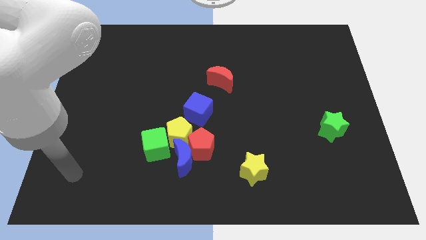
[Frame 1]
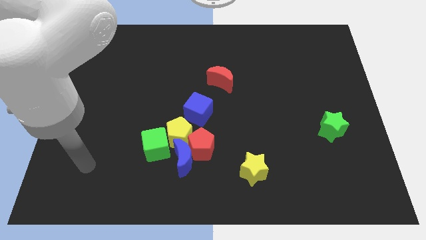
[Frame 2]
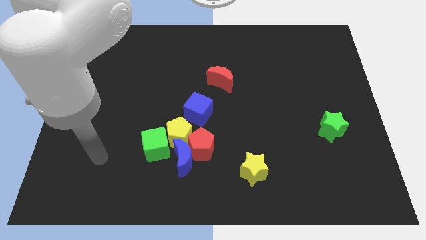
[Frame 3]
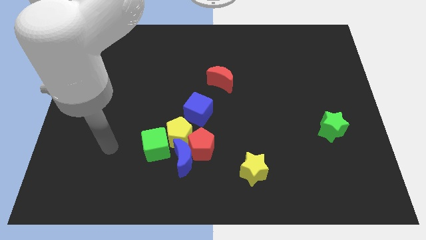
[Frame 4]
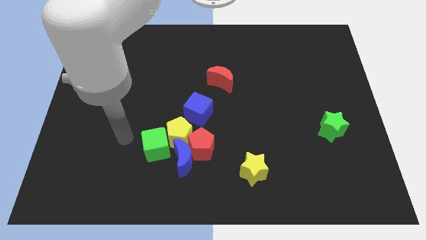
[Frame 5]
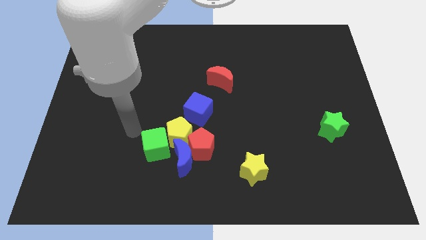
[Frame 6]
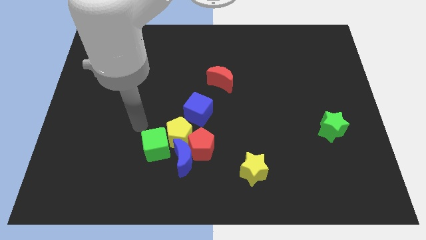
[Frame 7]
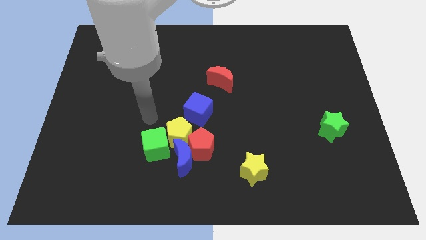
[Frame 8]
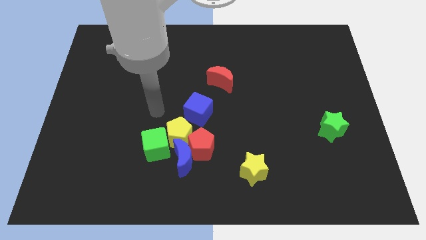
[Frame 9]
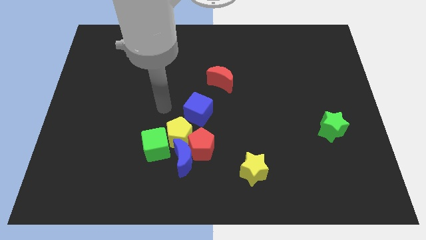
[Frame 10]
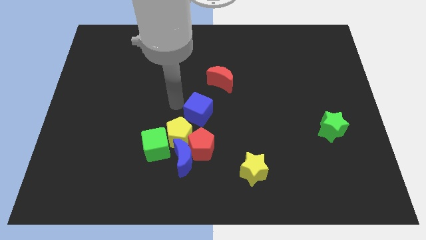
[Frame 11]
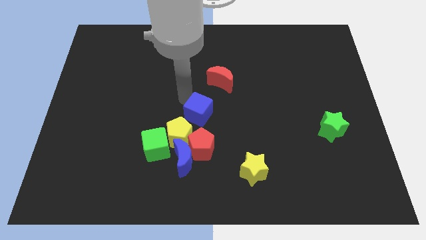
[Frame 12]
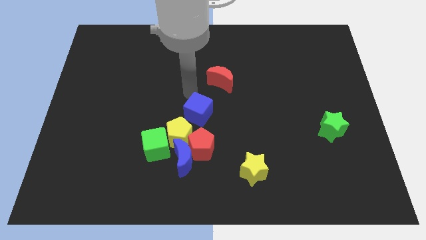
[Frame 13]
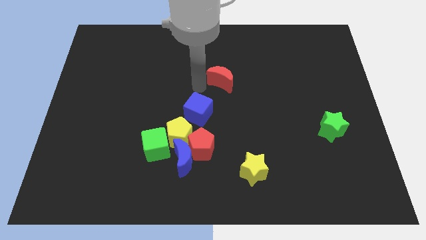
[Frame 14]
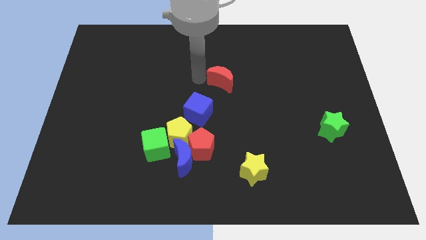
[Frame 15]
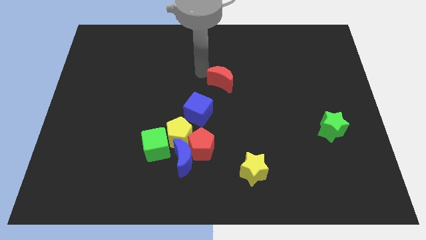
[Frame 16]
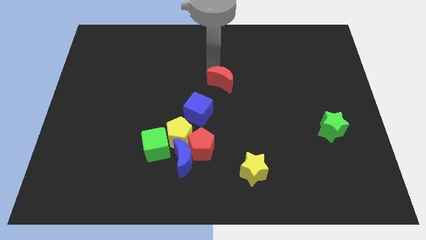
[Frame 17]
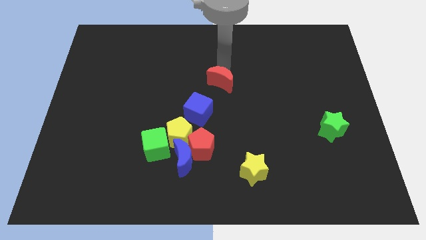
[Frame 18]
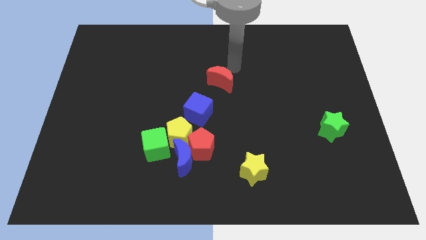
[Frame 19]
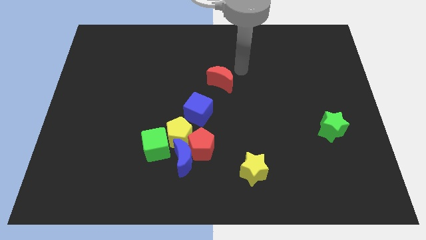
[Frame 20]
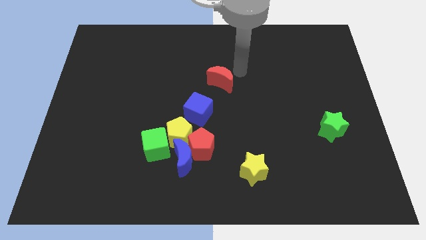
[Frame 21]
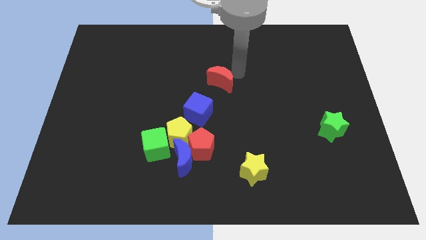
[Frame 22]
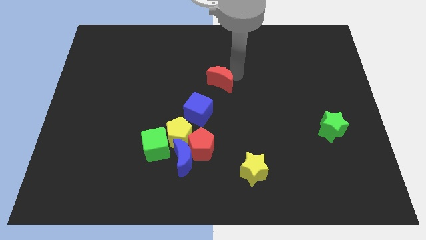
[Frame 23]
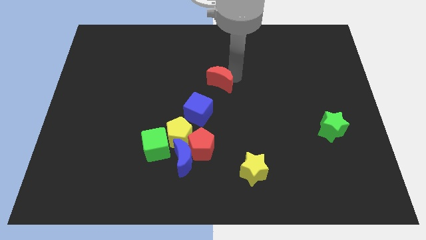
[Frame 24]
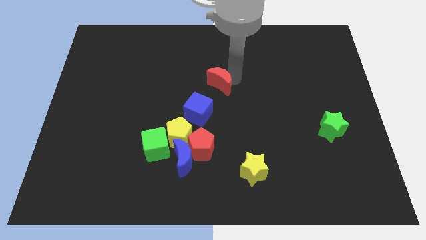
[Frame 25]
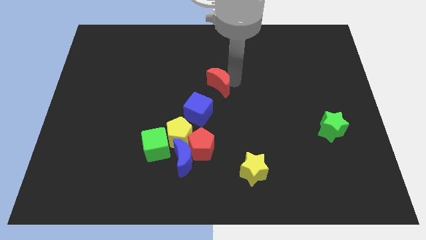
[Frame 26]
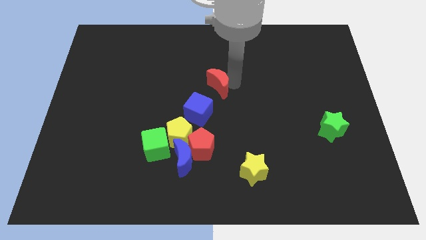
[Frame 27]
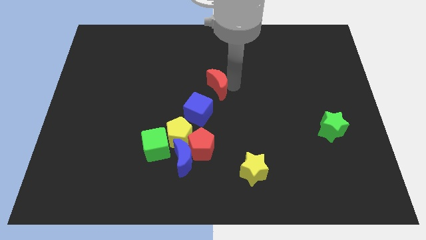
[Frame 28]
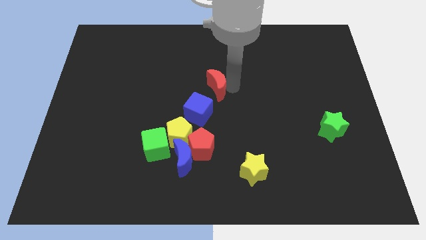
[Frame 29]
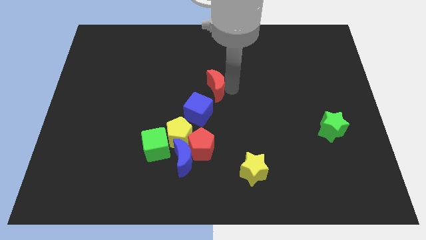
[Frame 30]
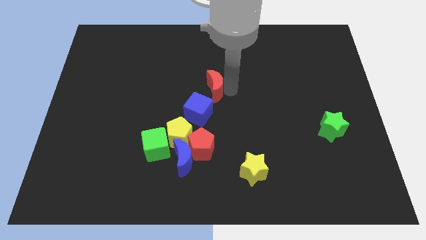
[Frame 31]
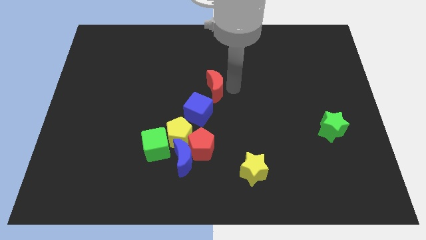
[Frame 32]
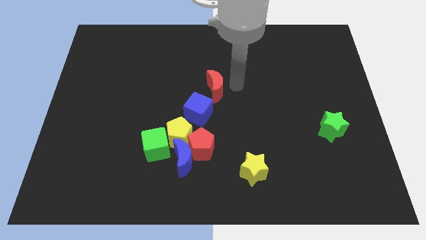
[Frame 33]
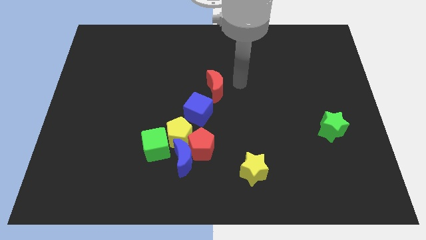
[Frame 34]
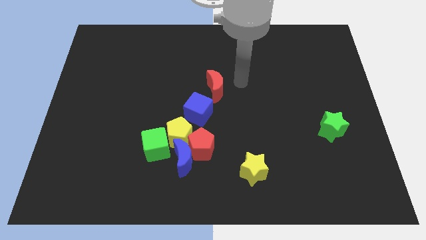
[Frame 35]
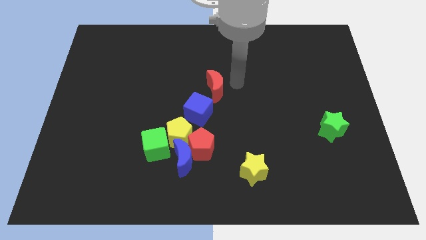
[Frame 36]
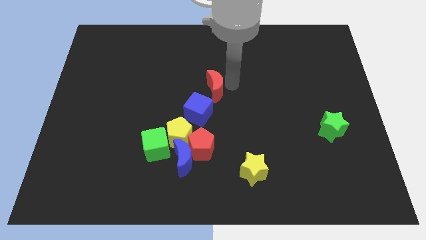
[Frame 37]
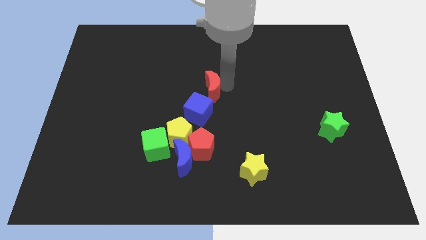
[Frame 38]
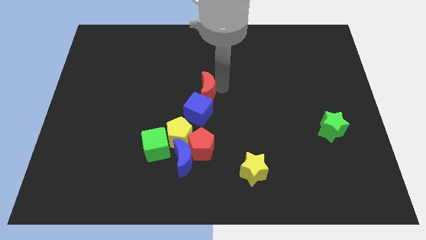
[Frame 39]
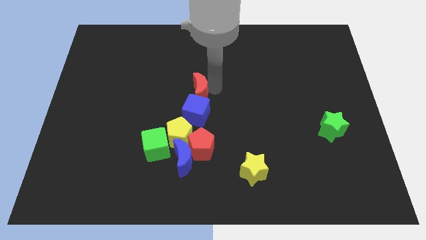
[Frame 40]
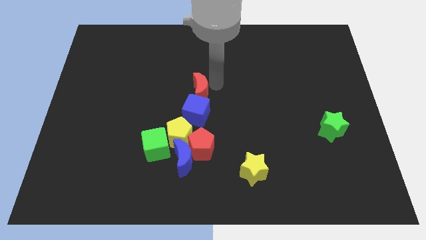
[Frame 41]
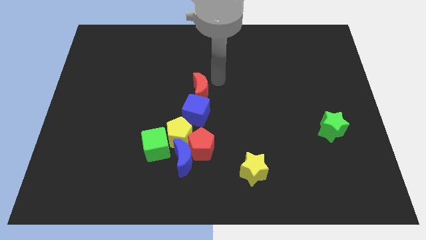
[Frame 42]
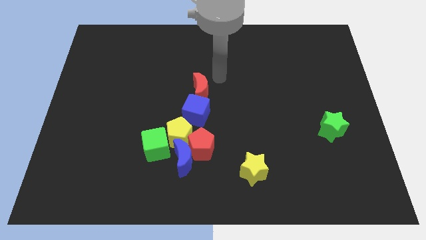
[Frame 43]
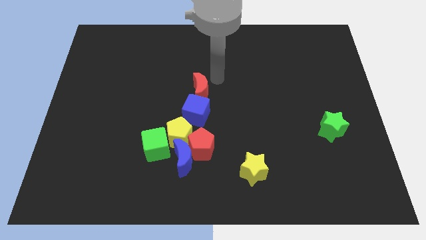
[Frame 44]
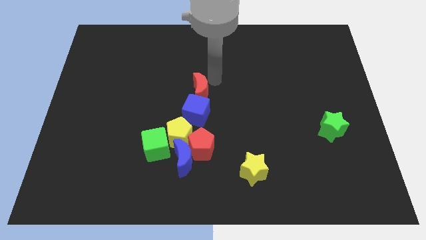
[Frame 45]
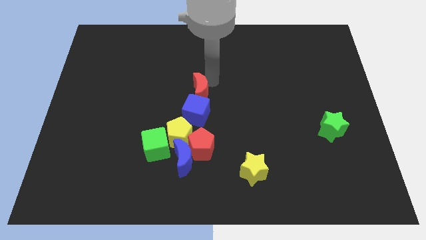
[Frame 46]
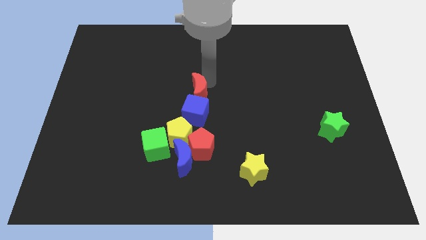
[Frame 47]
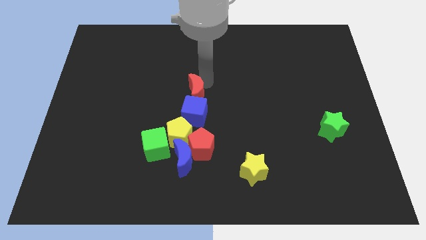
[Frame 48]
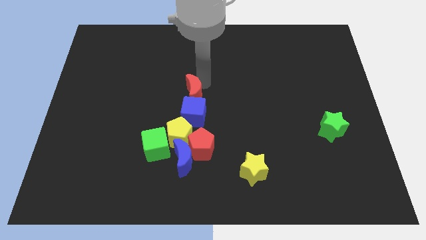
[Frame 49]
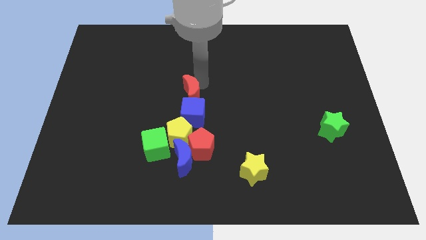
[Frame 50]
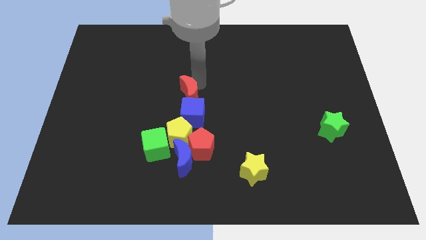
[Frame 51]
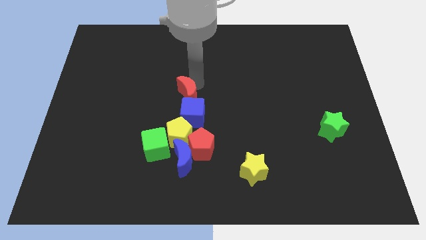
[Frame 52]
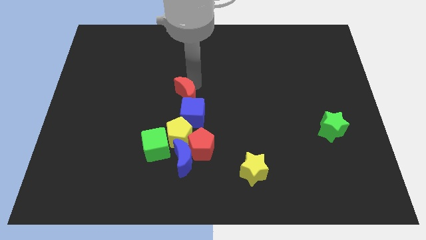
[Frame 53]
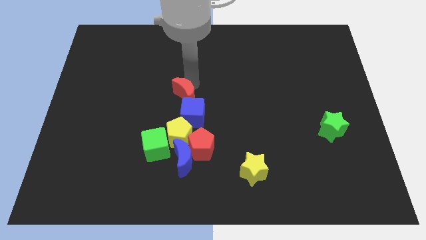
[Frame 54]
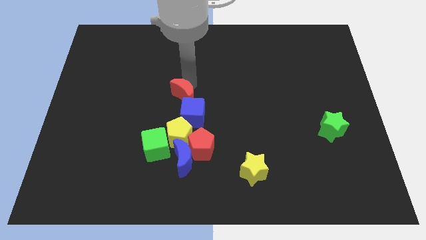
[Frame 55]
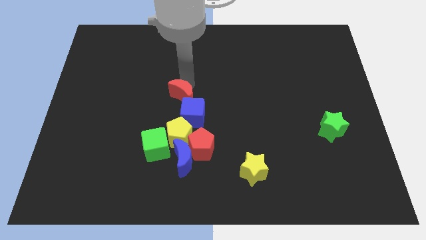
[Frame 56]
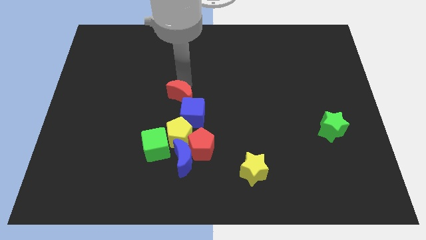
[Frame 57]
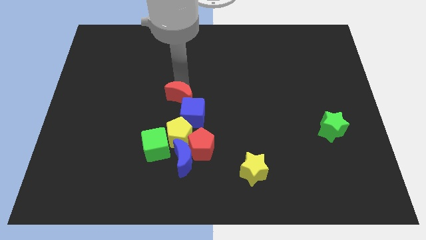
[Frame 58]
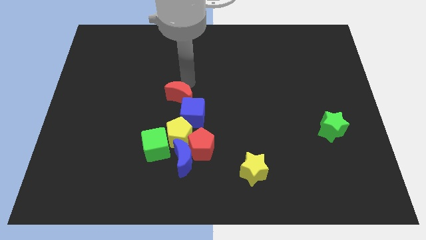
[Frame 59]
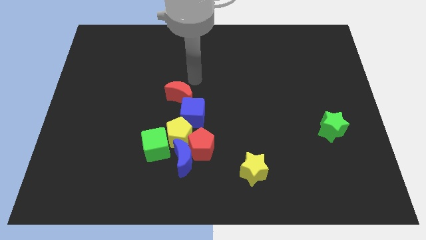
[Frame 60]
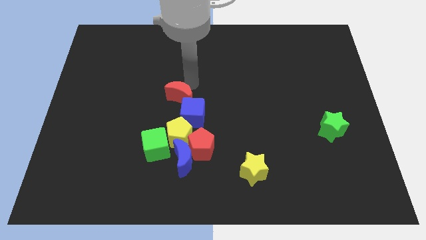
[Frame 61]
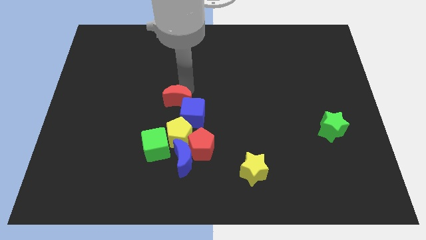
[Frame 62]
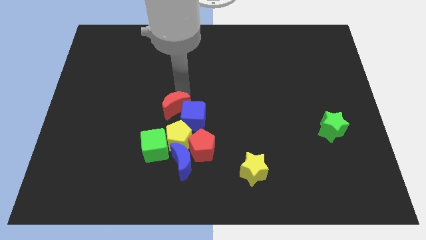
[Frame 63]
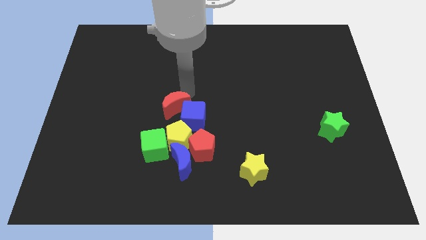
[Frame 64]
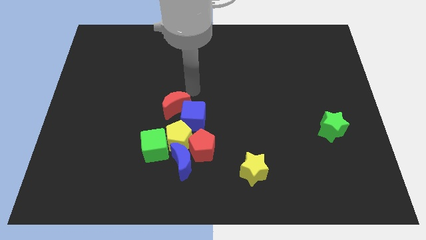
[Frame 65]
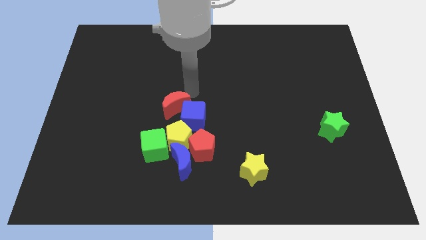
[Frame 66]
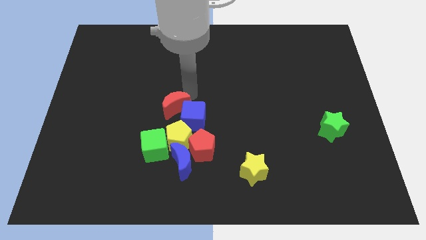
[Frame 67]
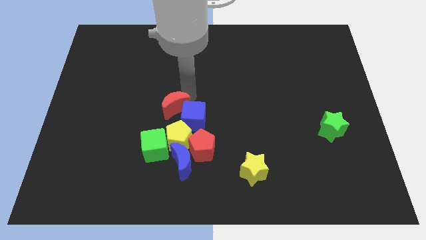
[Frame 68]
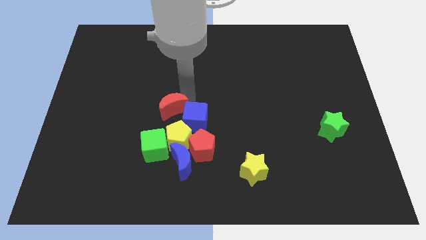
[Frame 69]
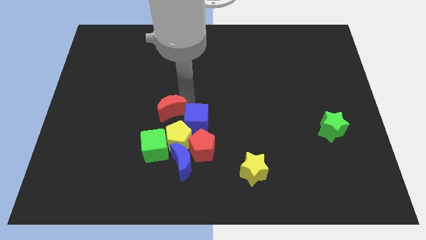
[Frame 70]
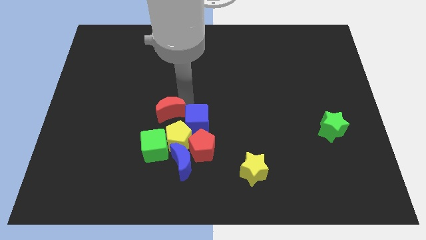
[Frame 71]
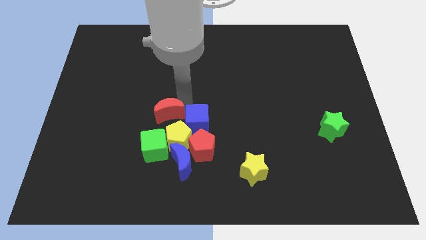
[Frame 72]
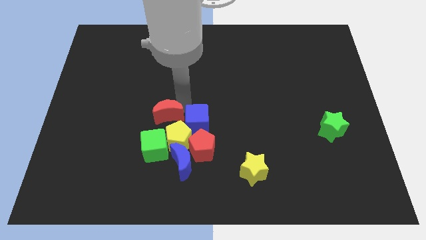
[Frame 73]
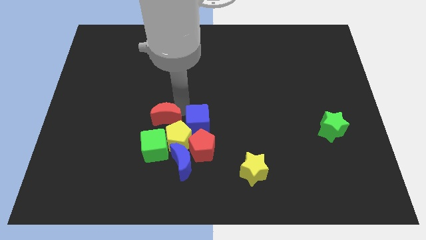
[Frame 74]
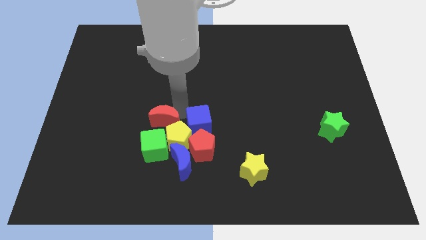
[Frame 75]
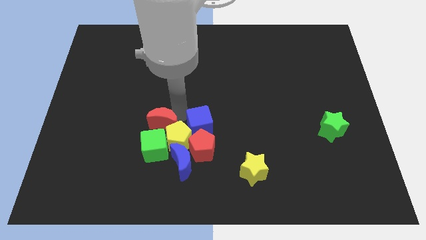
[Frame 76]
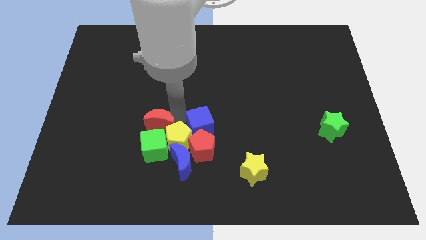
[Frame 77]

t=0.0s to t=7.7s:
move the red moon just left of the yellow pentagon

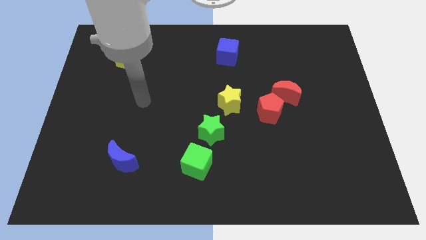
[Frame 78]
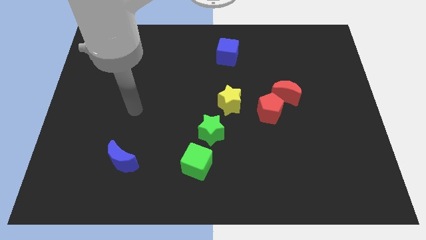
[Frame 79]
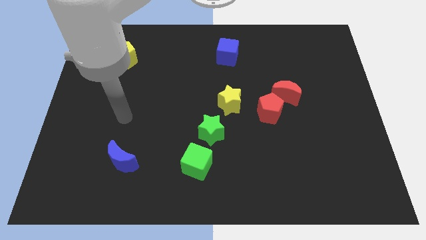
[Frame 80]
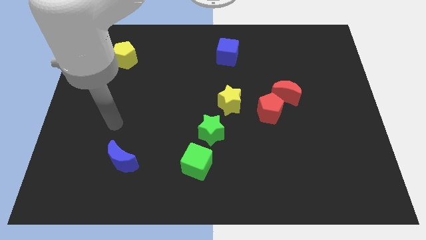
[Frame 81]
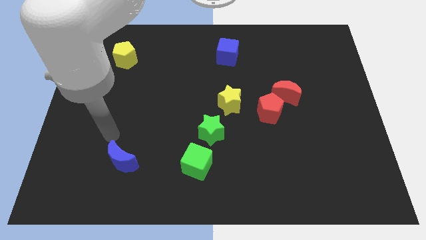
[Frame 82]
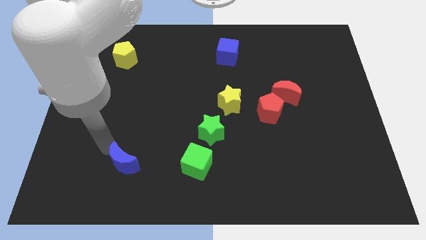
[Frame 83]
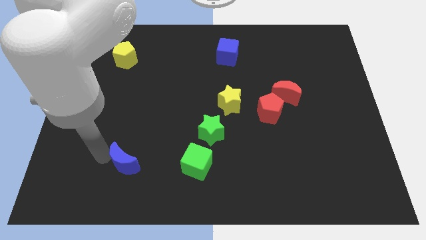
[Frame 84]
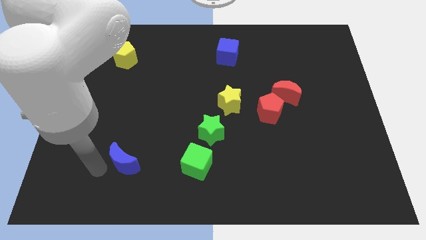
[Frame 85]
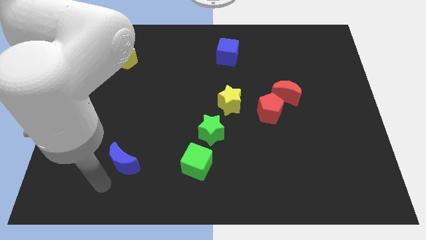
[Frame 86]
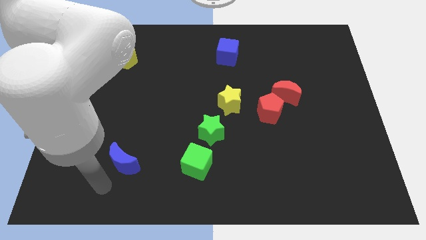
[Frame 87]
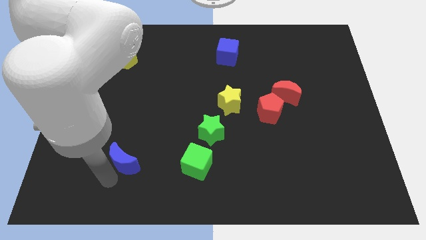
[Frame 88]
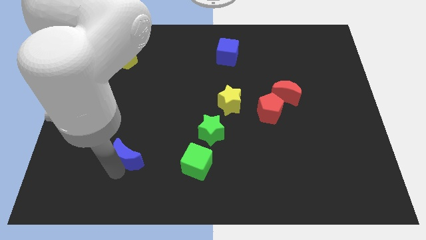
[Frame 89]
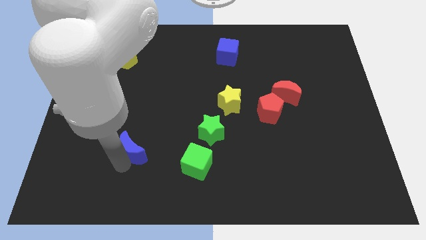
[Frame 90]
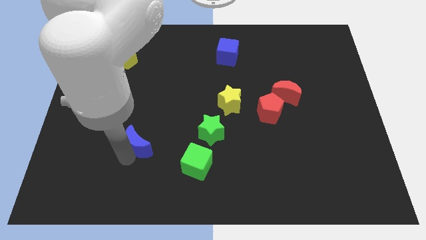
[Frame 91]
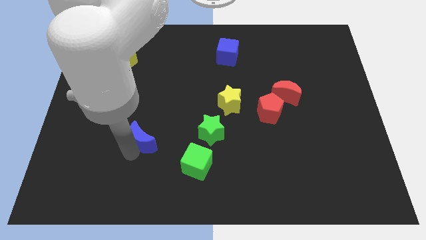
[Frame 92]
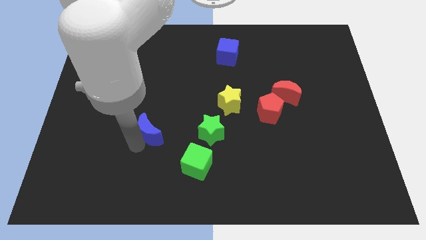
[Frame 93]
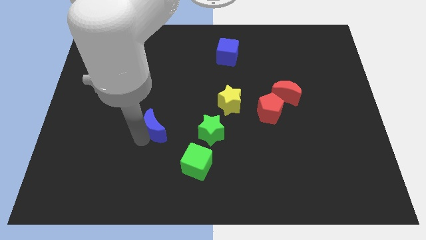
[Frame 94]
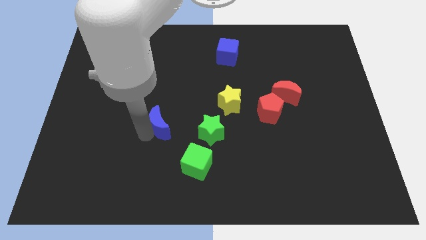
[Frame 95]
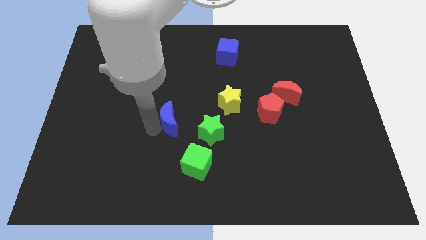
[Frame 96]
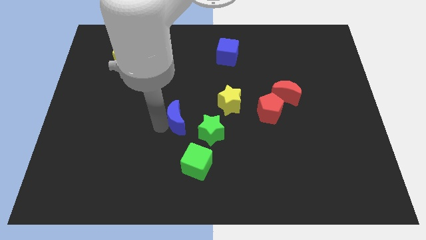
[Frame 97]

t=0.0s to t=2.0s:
push the blue moon to the top left of the green star
